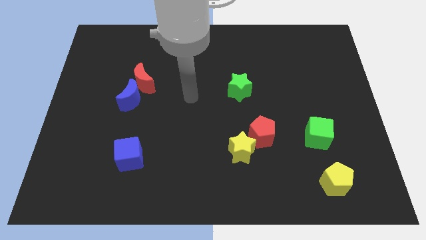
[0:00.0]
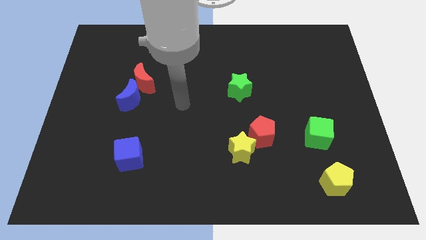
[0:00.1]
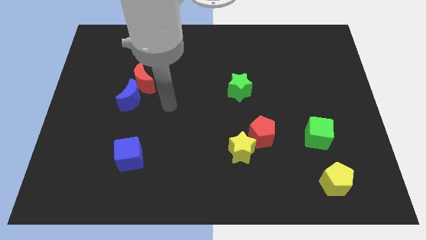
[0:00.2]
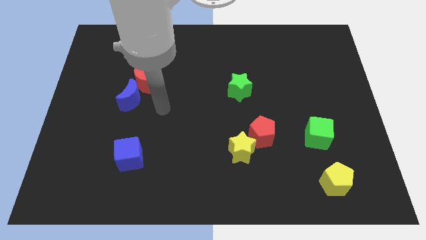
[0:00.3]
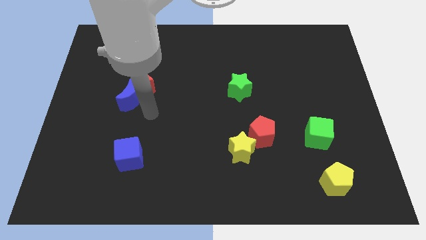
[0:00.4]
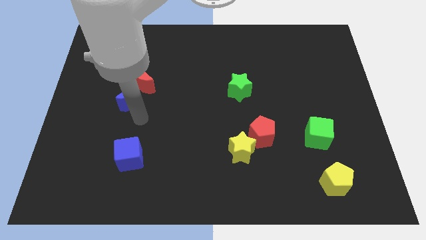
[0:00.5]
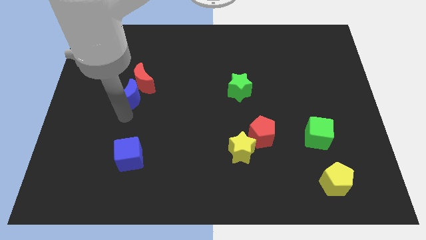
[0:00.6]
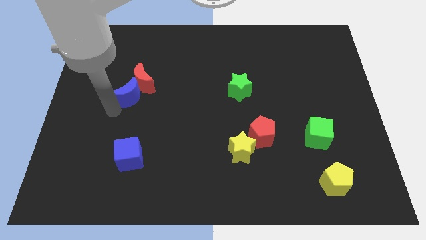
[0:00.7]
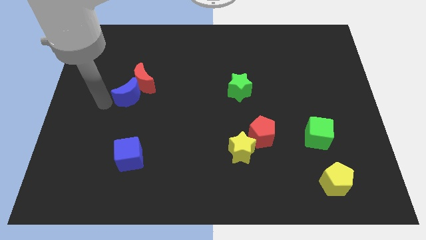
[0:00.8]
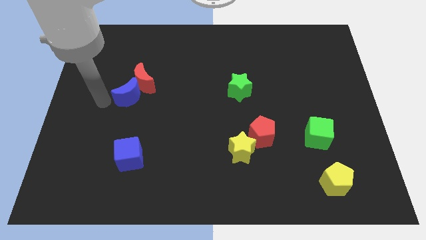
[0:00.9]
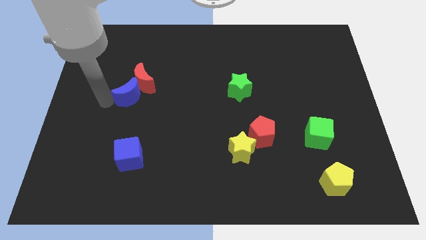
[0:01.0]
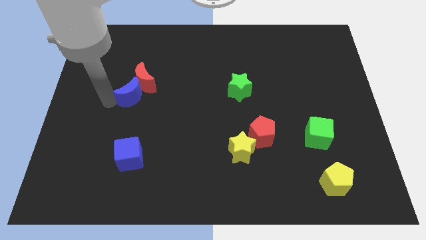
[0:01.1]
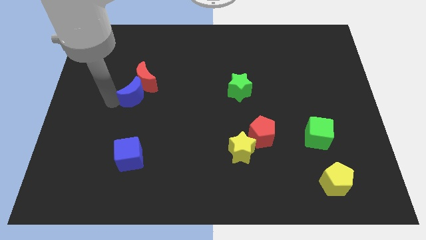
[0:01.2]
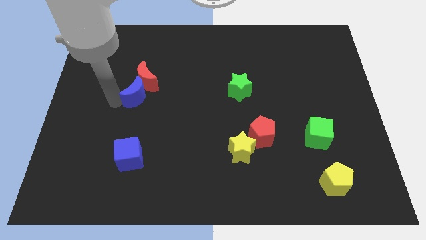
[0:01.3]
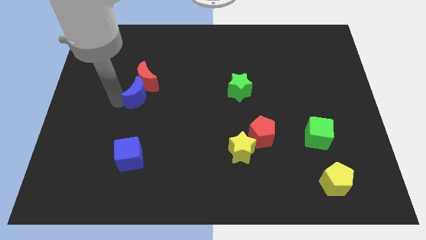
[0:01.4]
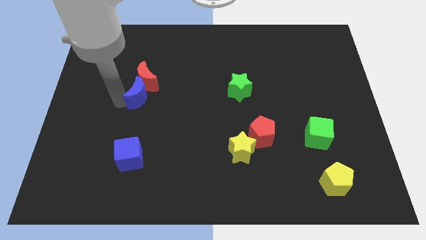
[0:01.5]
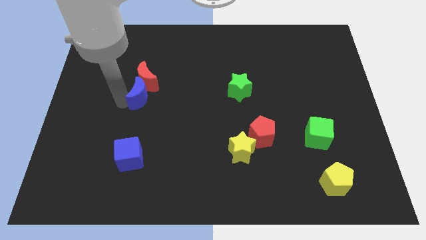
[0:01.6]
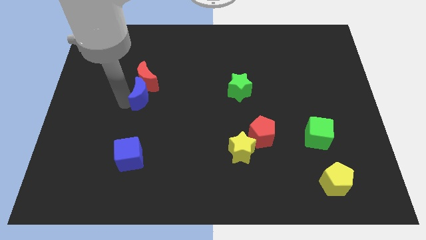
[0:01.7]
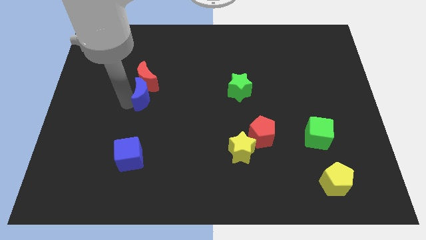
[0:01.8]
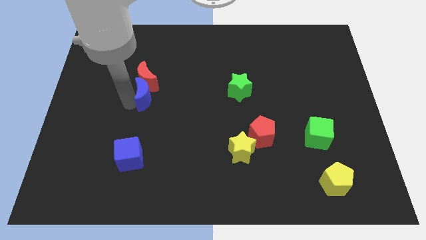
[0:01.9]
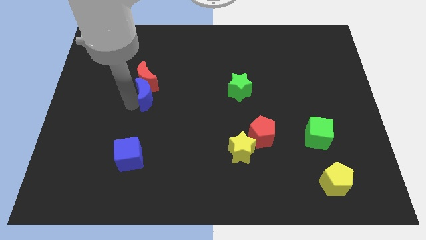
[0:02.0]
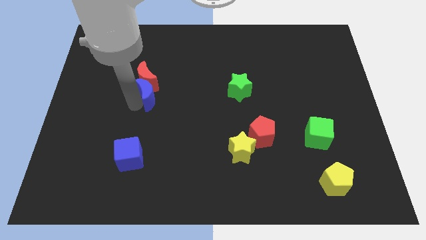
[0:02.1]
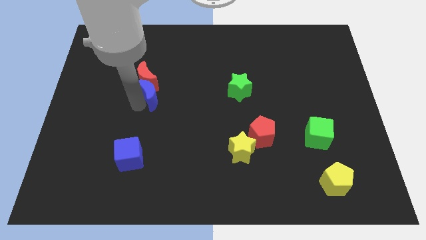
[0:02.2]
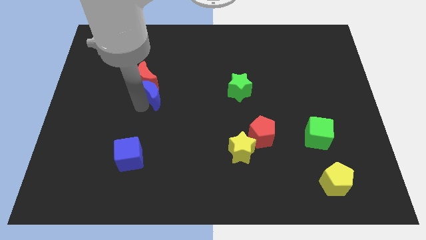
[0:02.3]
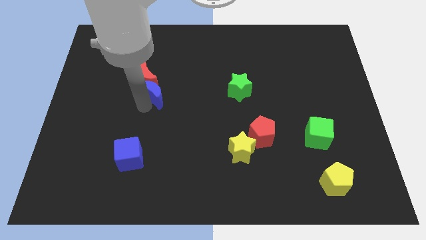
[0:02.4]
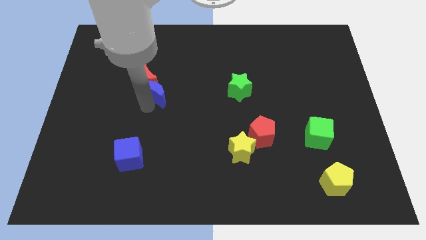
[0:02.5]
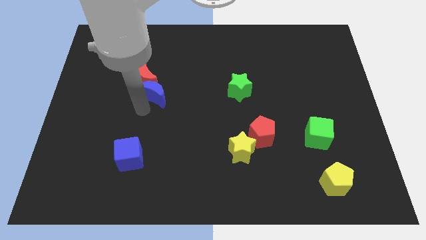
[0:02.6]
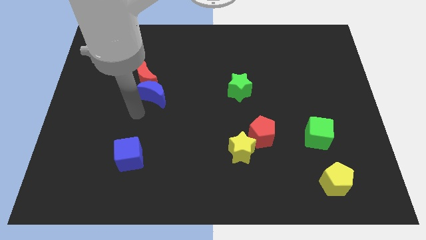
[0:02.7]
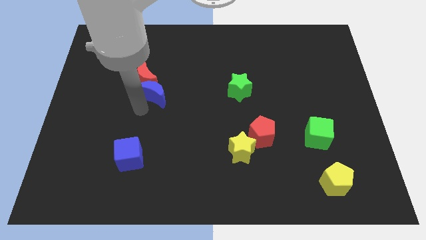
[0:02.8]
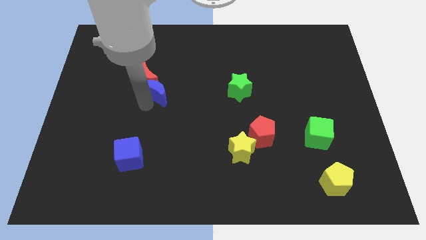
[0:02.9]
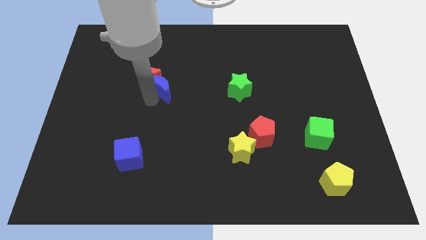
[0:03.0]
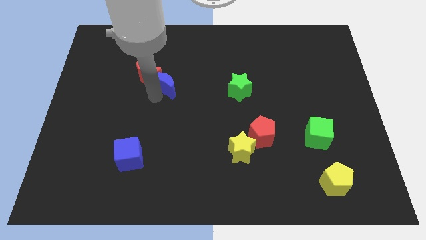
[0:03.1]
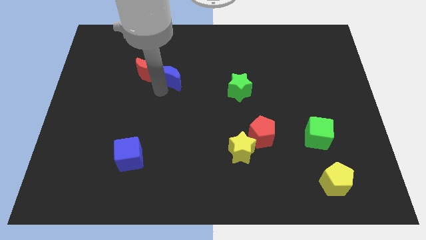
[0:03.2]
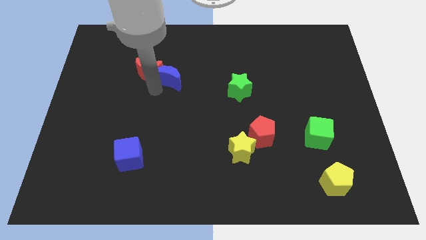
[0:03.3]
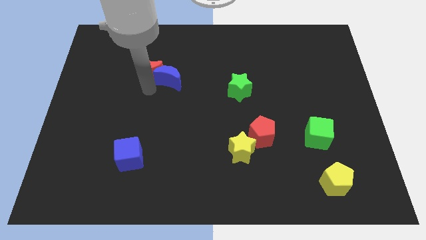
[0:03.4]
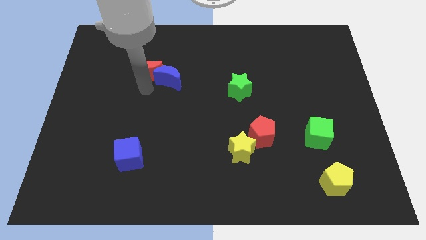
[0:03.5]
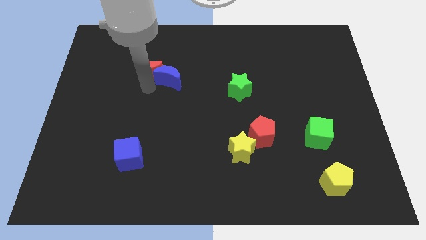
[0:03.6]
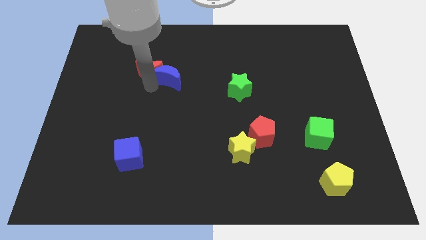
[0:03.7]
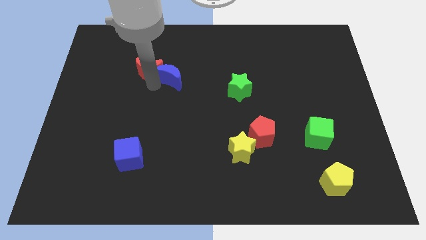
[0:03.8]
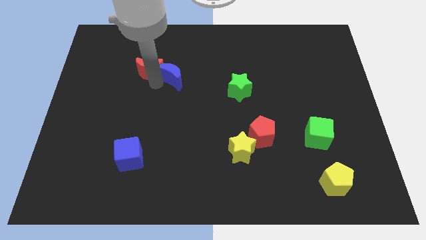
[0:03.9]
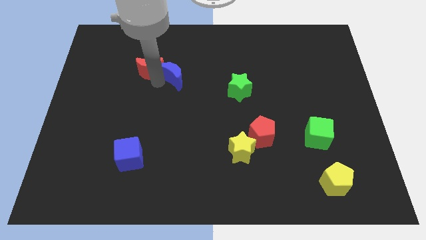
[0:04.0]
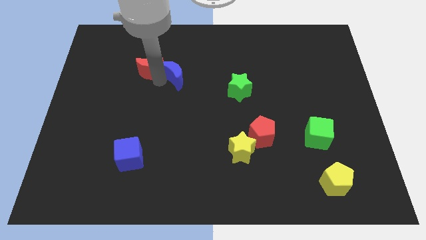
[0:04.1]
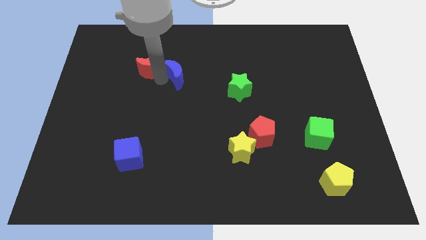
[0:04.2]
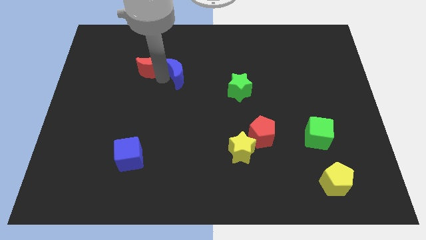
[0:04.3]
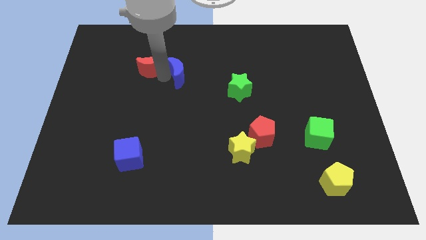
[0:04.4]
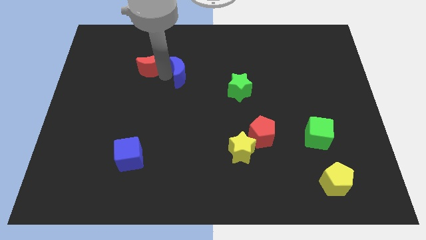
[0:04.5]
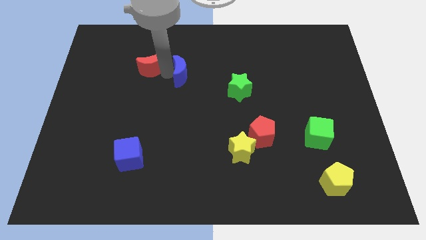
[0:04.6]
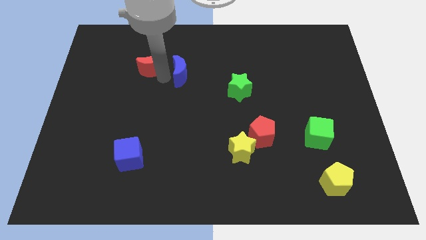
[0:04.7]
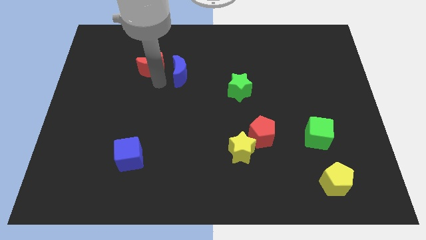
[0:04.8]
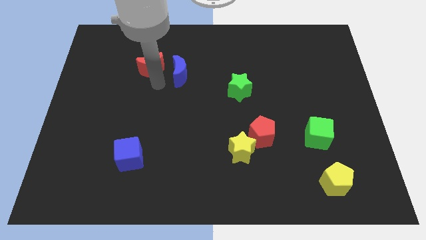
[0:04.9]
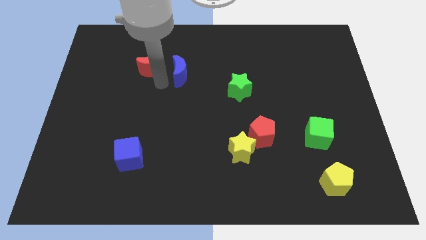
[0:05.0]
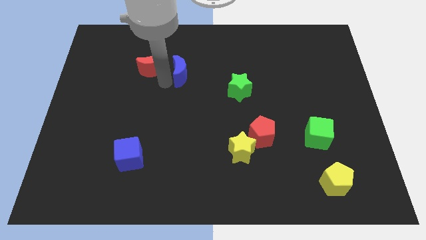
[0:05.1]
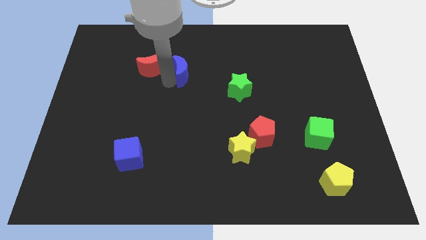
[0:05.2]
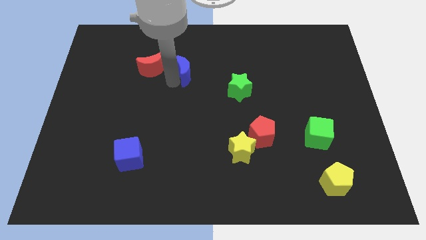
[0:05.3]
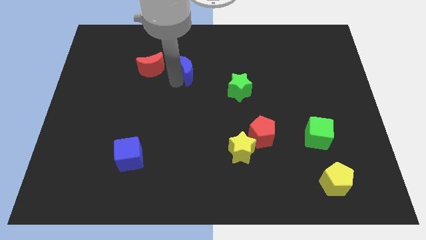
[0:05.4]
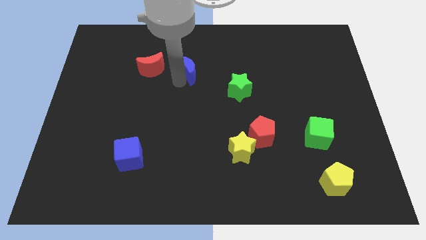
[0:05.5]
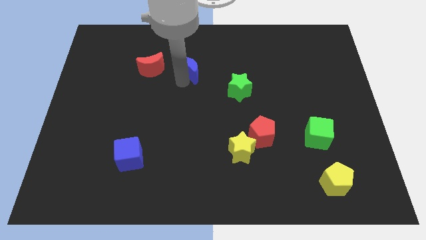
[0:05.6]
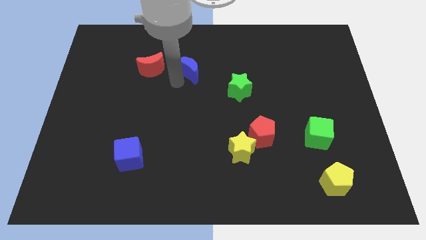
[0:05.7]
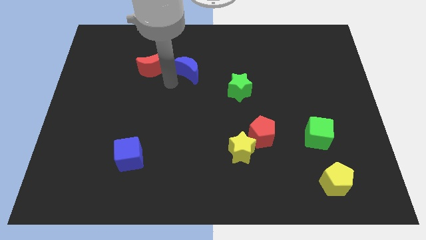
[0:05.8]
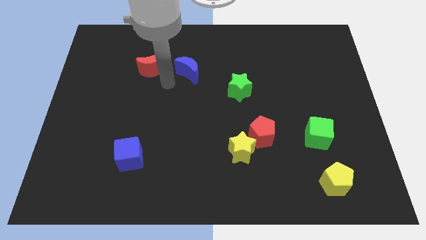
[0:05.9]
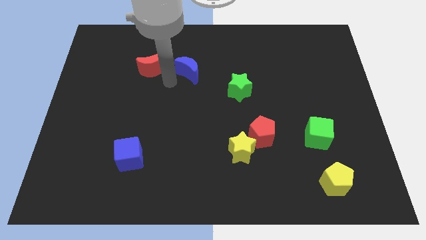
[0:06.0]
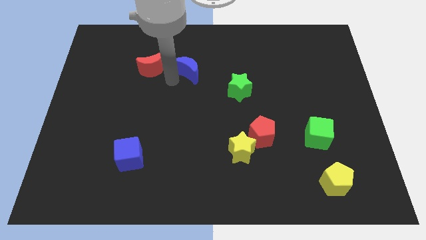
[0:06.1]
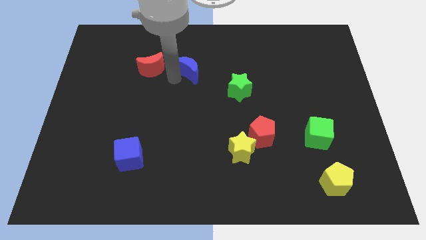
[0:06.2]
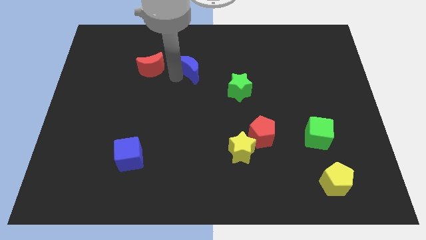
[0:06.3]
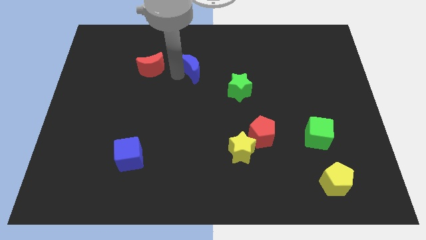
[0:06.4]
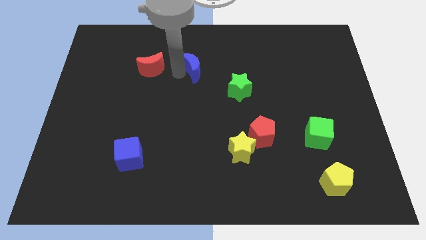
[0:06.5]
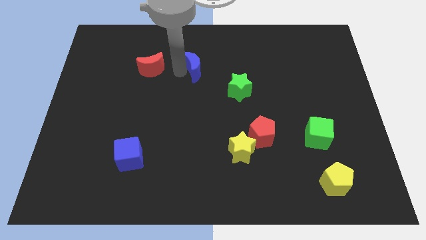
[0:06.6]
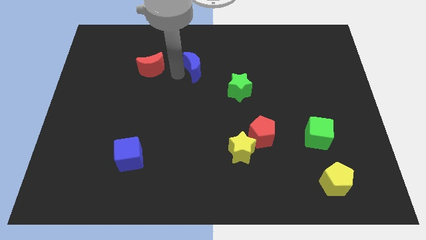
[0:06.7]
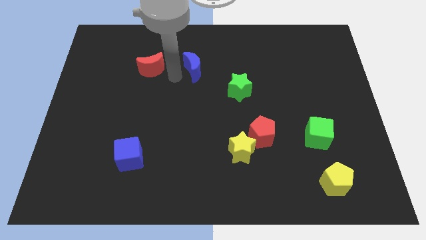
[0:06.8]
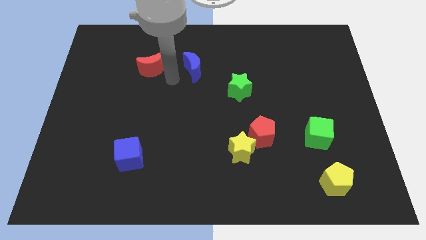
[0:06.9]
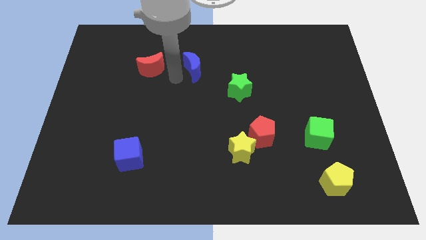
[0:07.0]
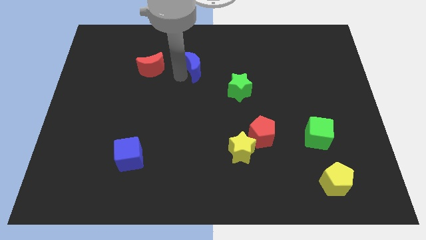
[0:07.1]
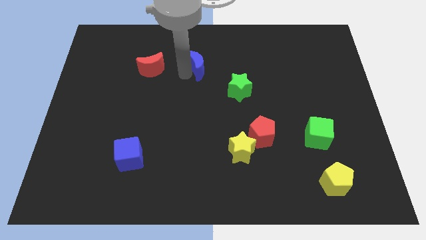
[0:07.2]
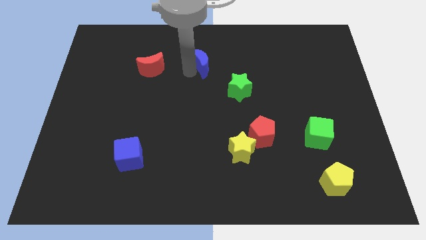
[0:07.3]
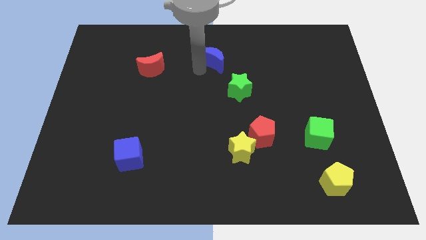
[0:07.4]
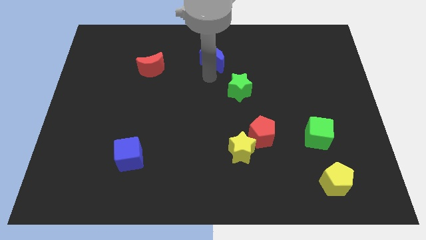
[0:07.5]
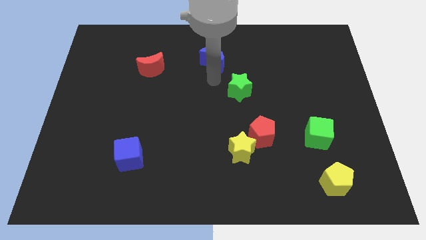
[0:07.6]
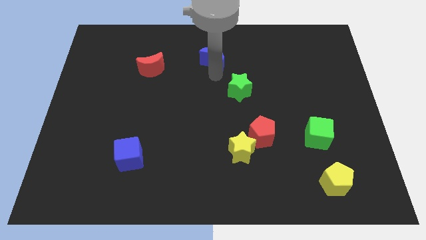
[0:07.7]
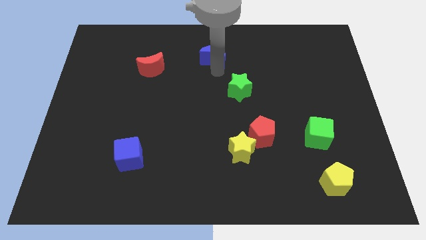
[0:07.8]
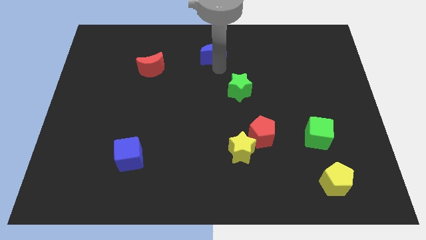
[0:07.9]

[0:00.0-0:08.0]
push the blue moon to the top
